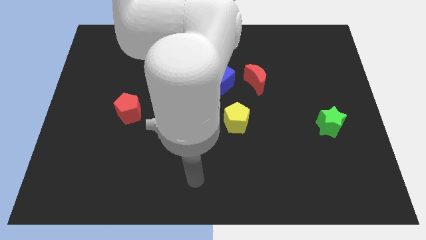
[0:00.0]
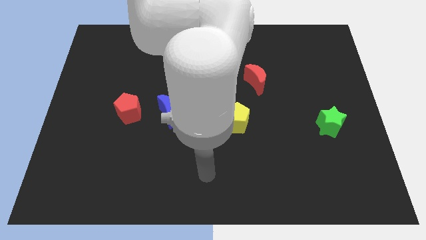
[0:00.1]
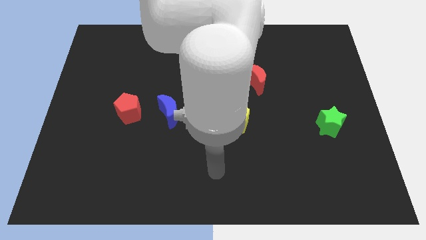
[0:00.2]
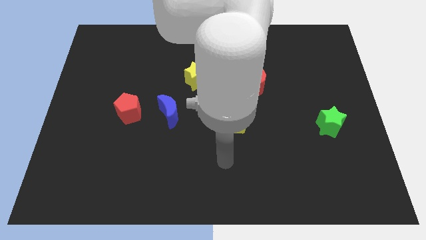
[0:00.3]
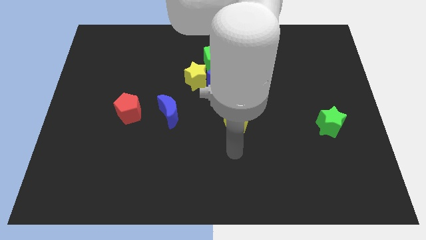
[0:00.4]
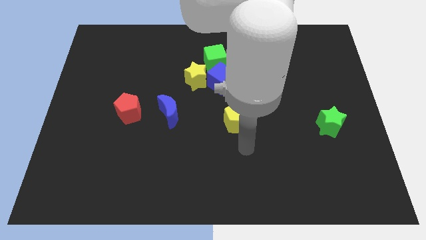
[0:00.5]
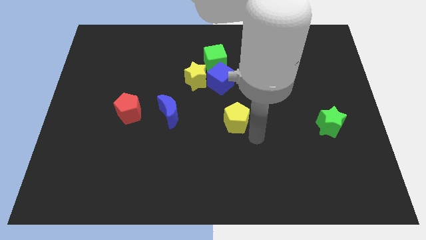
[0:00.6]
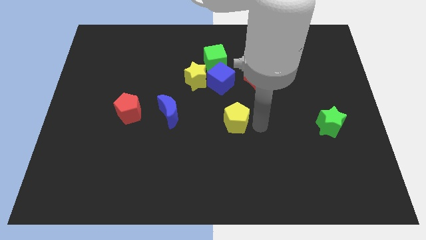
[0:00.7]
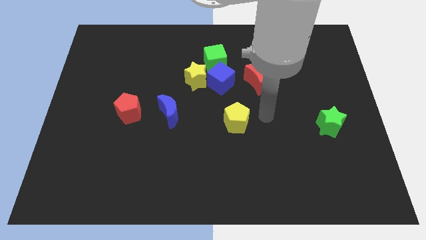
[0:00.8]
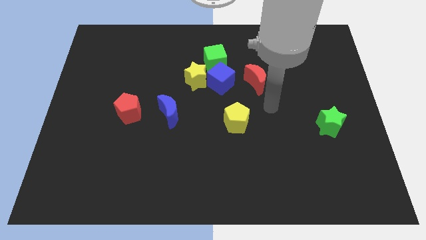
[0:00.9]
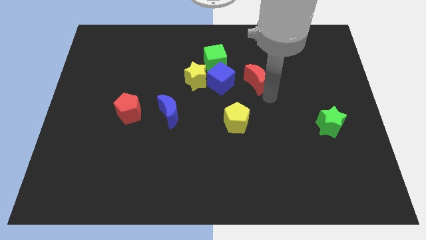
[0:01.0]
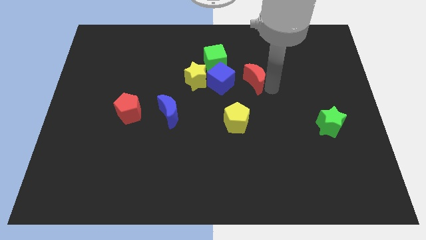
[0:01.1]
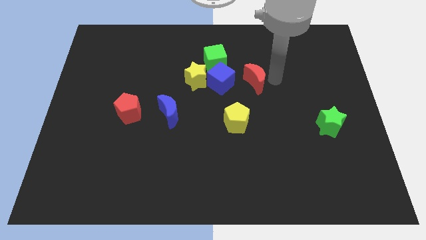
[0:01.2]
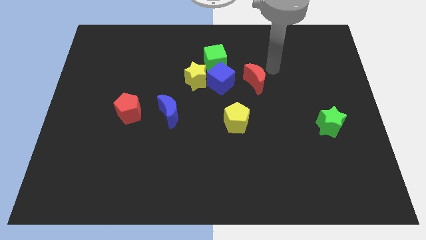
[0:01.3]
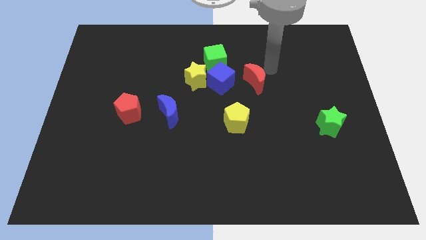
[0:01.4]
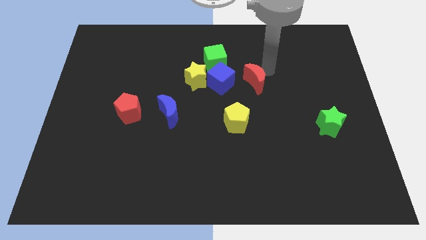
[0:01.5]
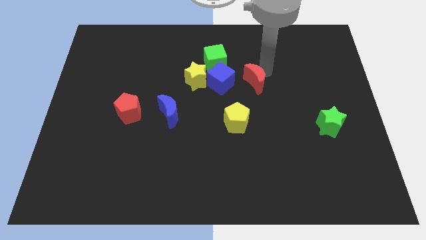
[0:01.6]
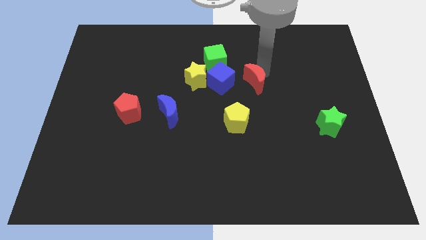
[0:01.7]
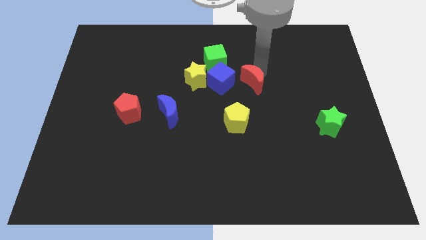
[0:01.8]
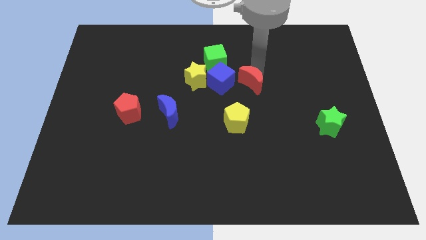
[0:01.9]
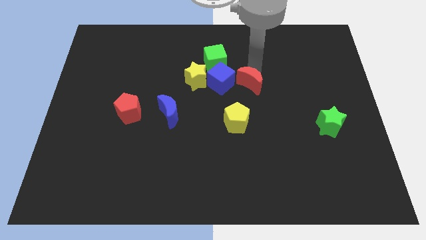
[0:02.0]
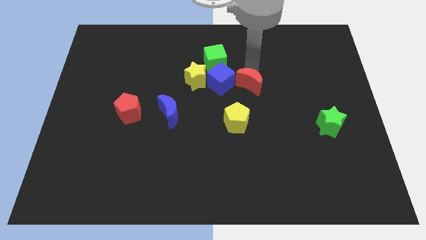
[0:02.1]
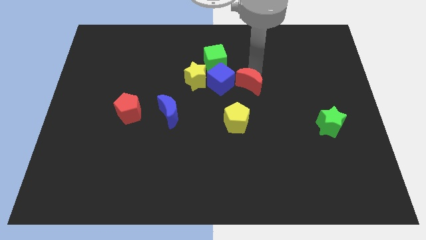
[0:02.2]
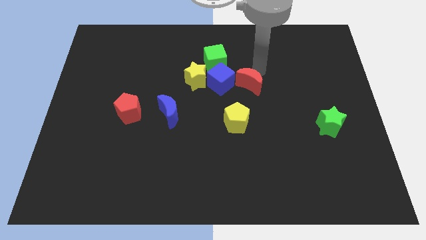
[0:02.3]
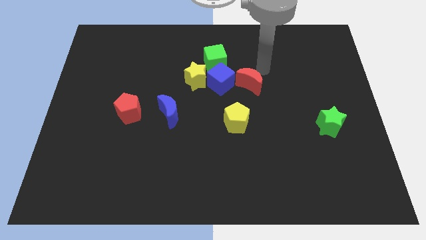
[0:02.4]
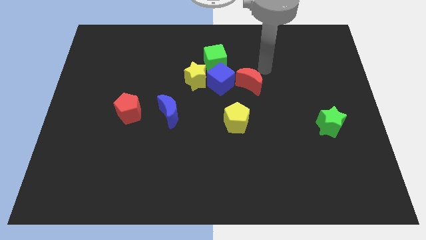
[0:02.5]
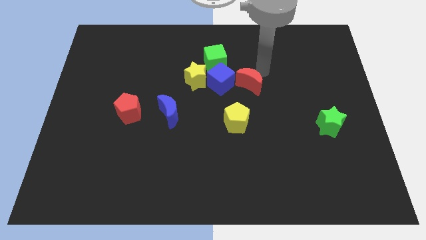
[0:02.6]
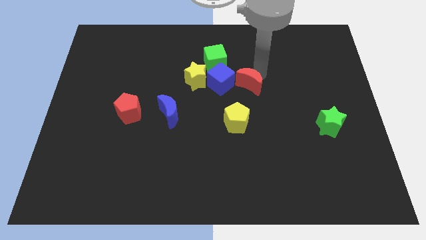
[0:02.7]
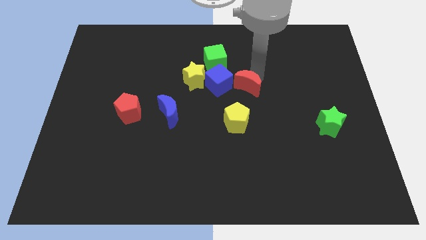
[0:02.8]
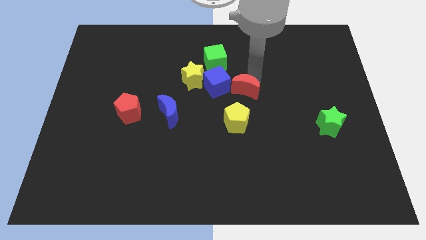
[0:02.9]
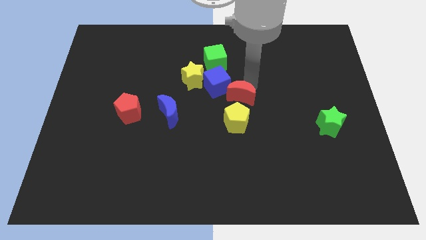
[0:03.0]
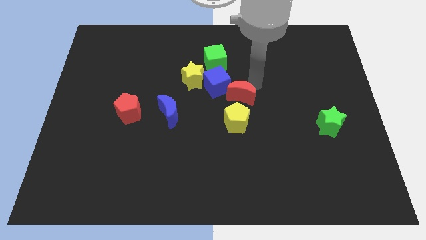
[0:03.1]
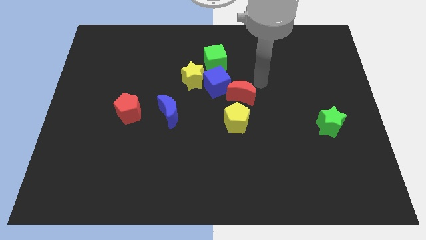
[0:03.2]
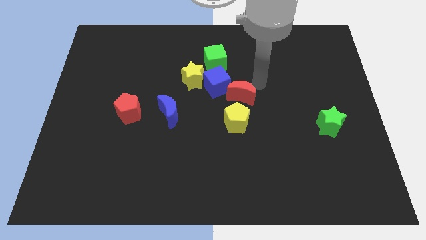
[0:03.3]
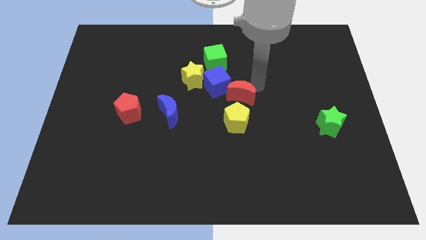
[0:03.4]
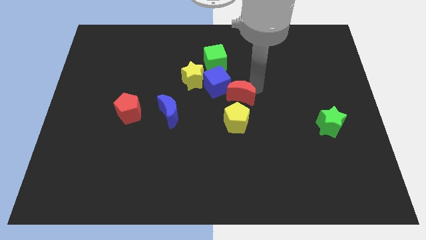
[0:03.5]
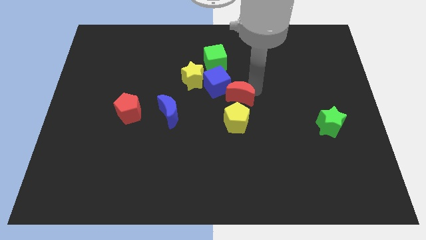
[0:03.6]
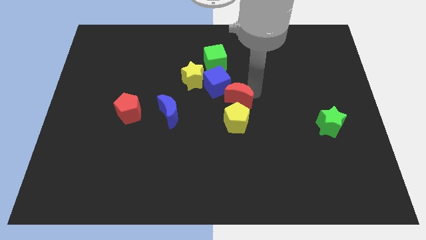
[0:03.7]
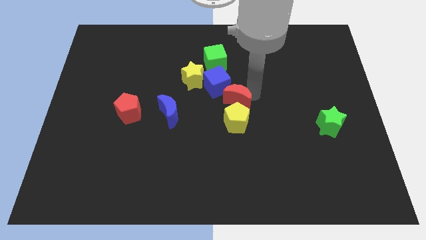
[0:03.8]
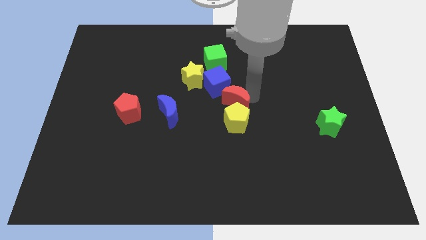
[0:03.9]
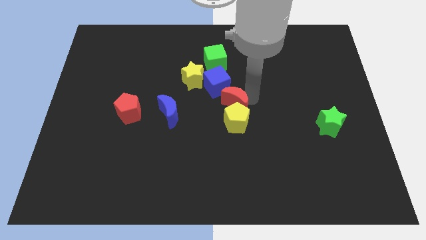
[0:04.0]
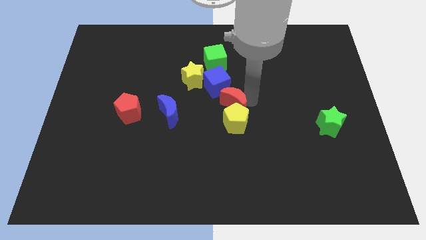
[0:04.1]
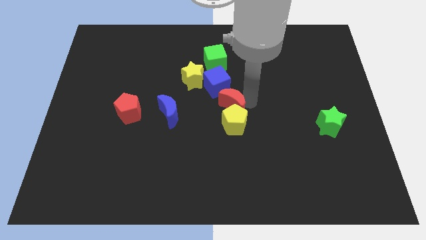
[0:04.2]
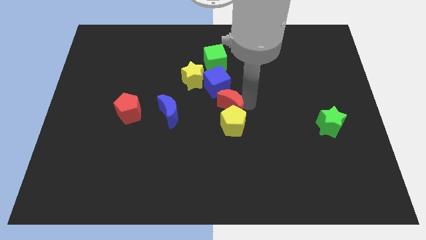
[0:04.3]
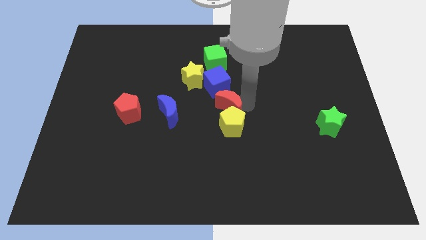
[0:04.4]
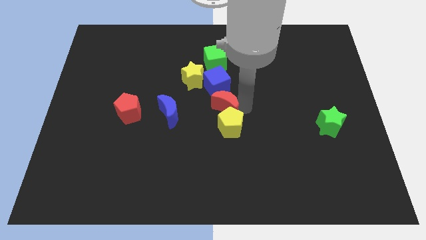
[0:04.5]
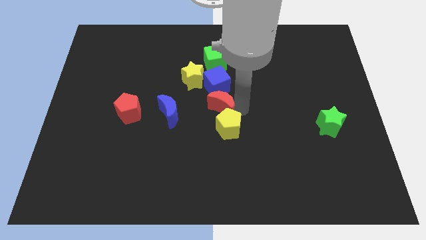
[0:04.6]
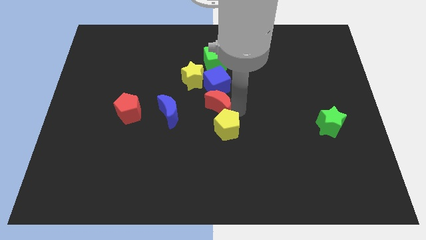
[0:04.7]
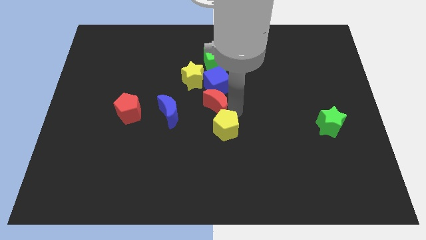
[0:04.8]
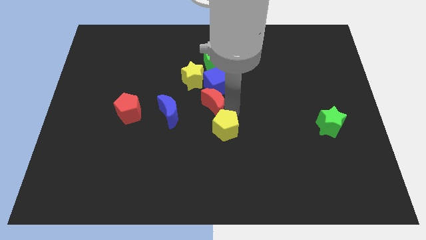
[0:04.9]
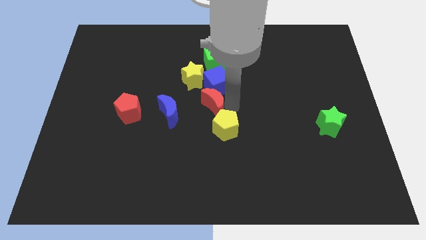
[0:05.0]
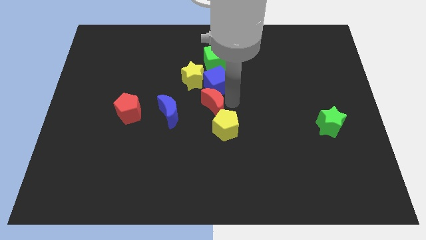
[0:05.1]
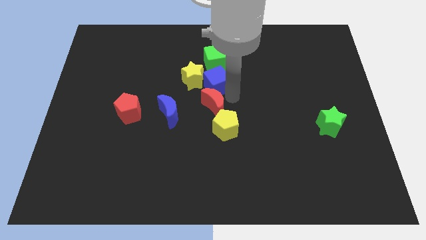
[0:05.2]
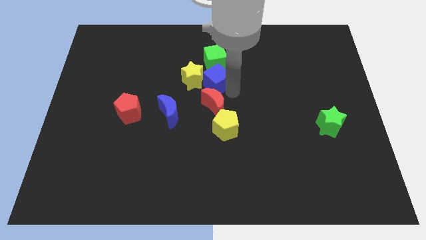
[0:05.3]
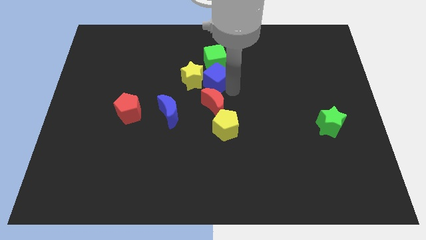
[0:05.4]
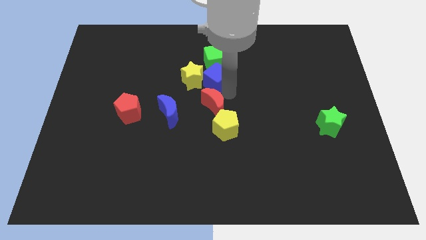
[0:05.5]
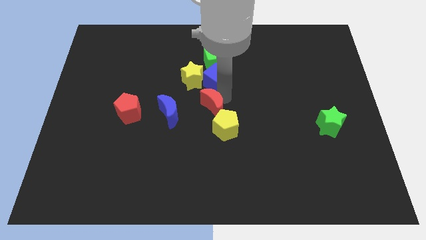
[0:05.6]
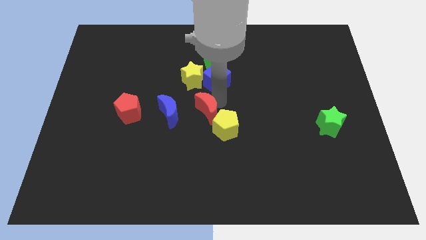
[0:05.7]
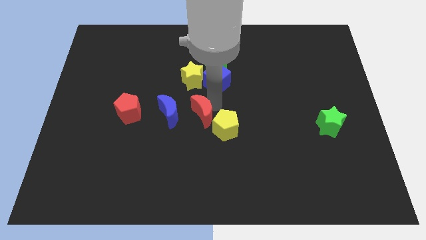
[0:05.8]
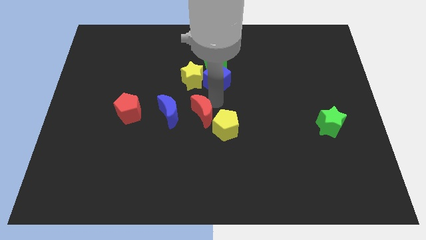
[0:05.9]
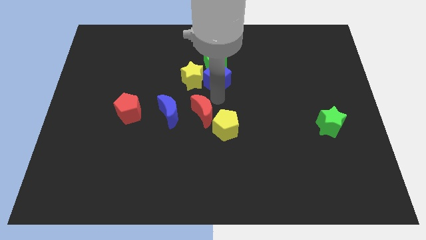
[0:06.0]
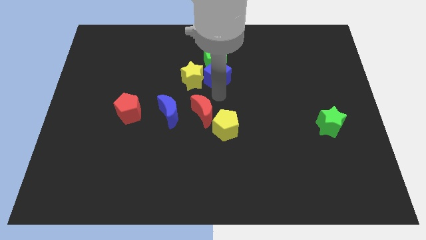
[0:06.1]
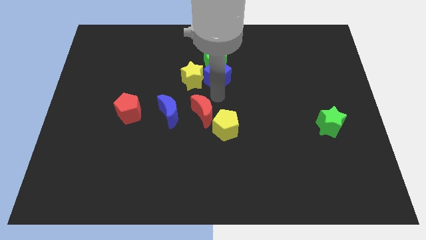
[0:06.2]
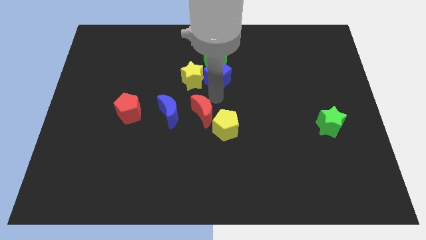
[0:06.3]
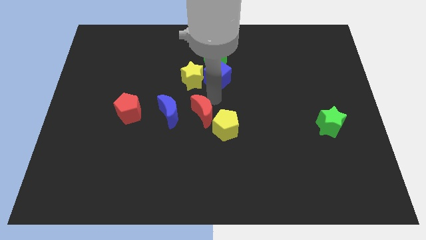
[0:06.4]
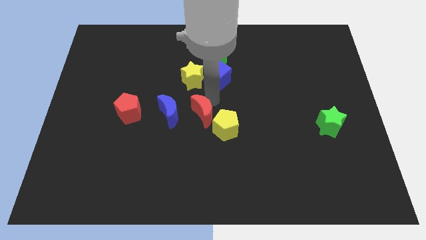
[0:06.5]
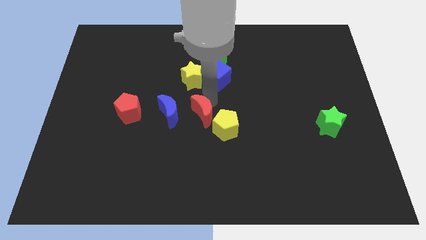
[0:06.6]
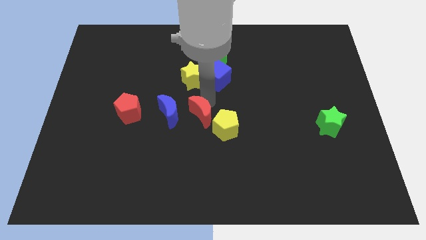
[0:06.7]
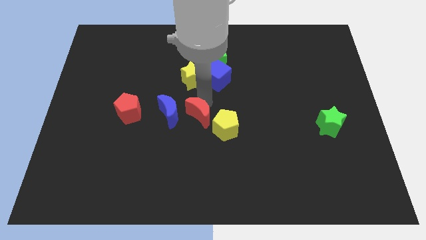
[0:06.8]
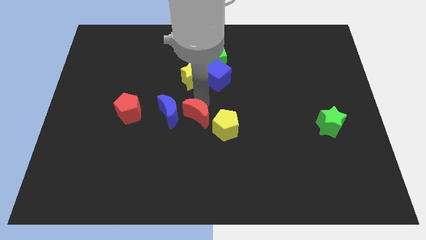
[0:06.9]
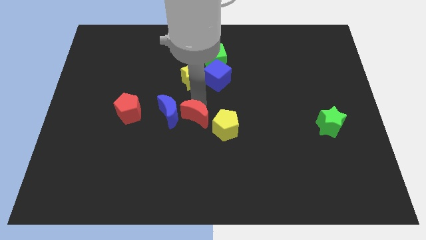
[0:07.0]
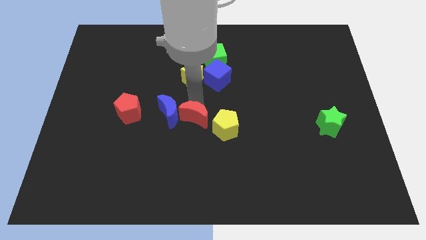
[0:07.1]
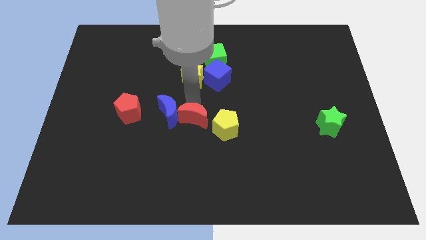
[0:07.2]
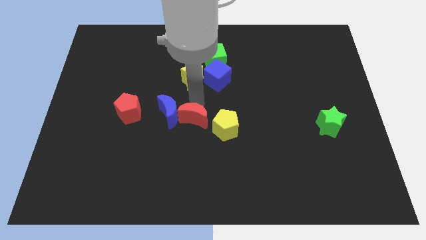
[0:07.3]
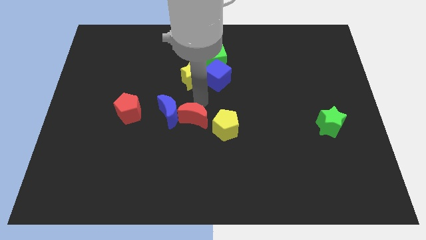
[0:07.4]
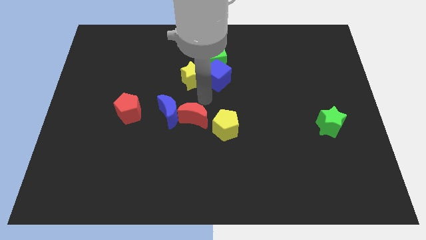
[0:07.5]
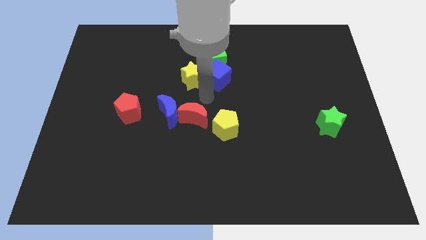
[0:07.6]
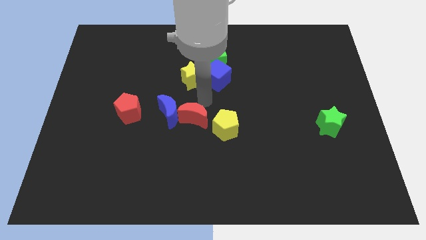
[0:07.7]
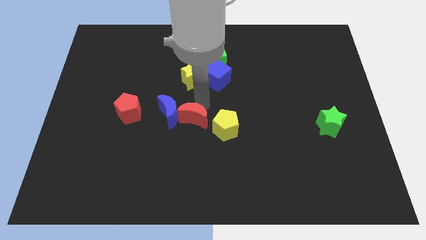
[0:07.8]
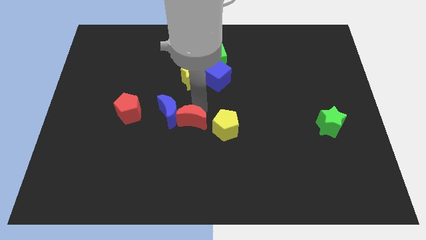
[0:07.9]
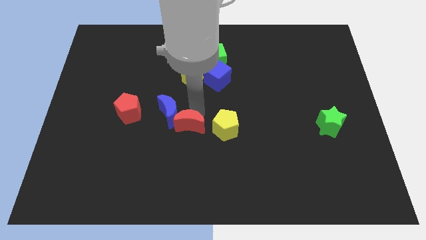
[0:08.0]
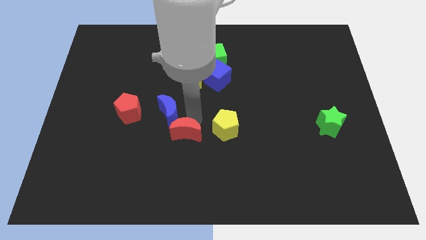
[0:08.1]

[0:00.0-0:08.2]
slide the red moon to the bottom of the blue moon
